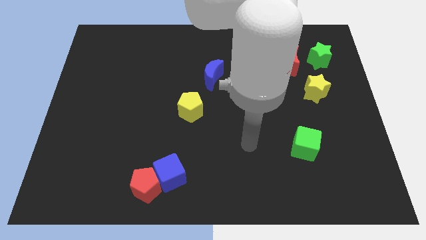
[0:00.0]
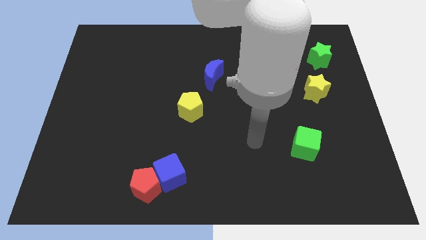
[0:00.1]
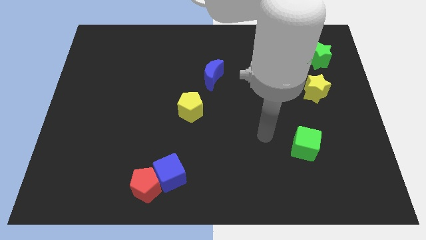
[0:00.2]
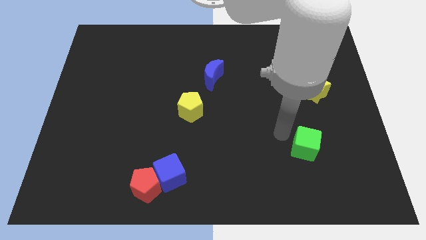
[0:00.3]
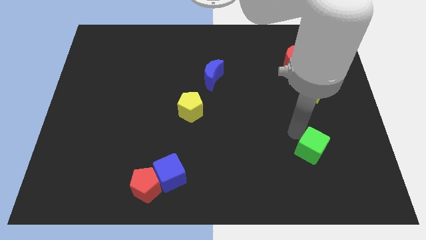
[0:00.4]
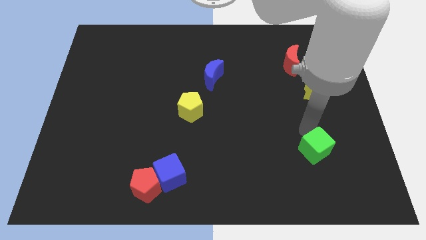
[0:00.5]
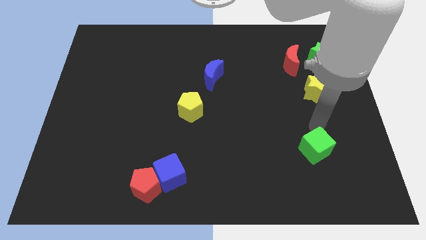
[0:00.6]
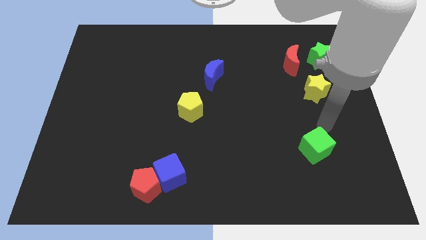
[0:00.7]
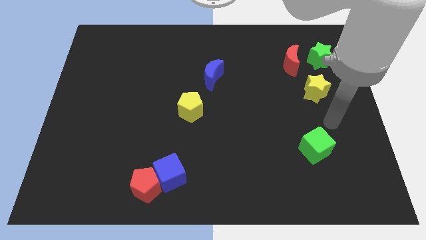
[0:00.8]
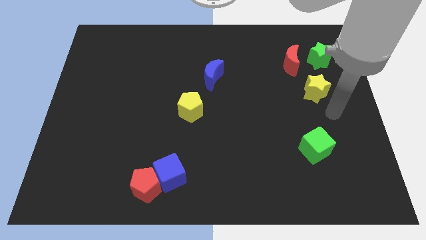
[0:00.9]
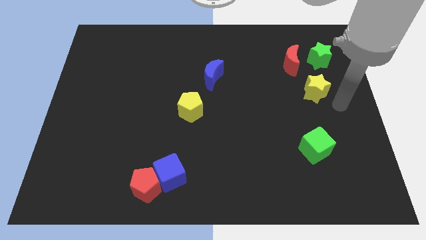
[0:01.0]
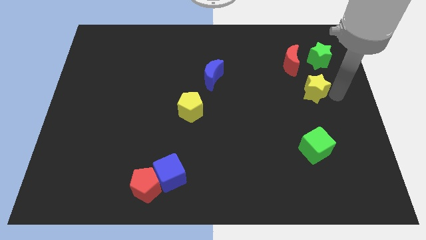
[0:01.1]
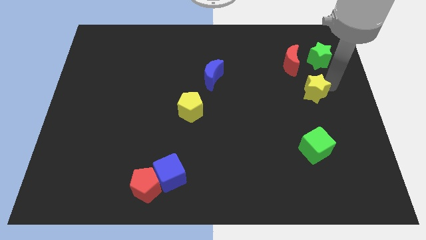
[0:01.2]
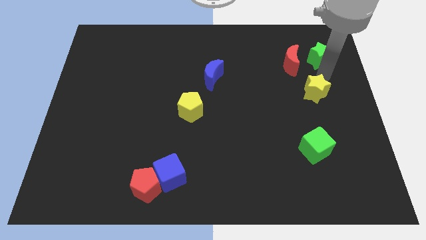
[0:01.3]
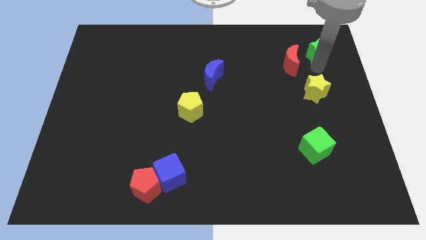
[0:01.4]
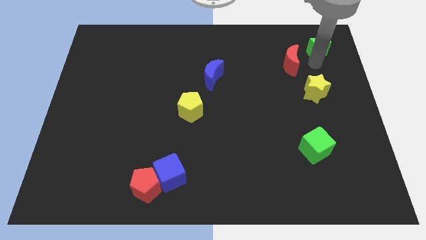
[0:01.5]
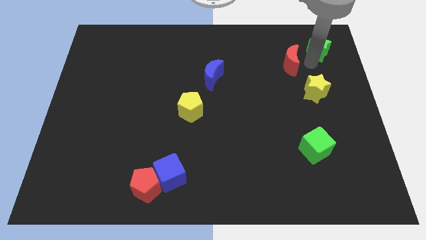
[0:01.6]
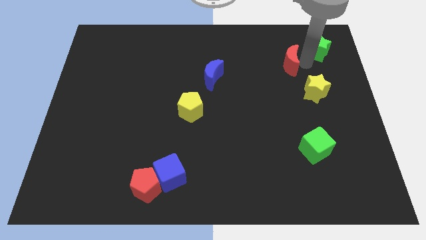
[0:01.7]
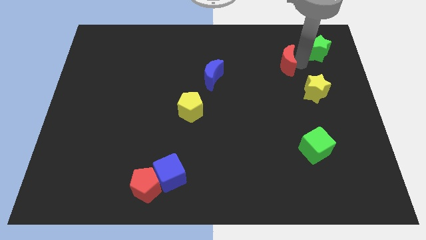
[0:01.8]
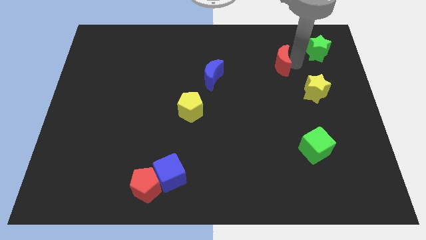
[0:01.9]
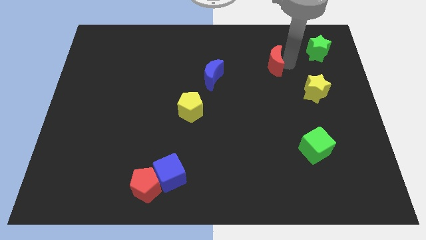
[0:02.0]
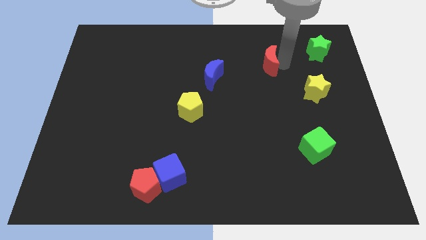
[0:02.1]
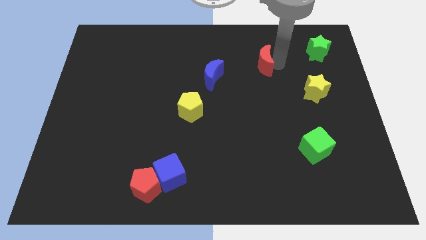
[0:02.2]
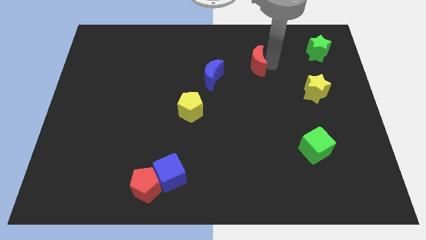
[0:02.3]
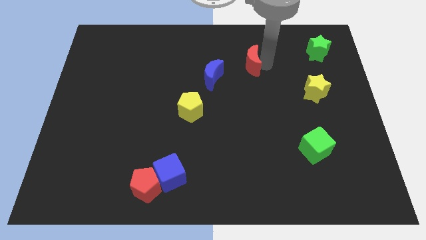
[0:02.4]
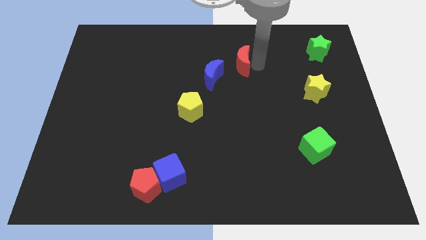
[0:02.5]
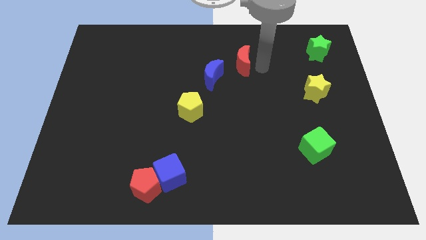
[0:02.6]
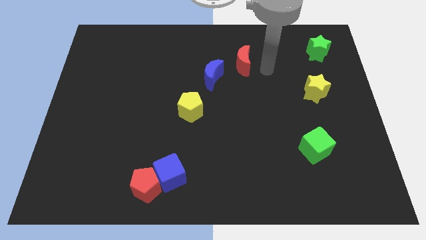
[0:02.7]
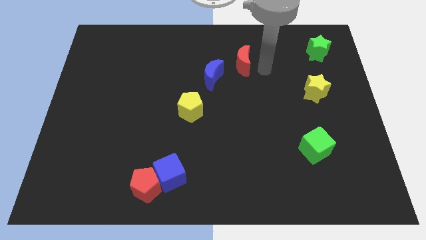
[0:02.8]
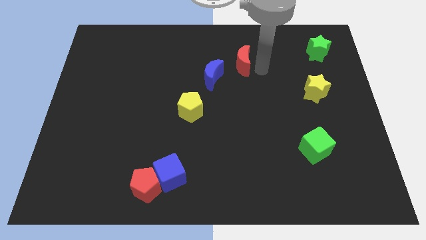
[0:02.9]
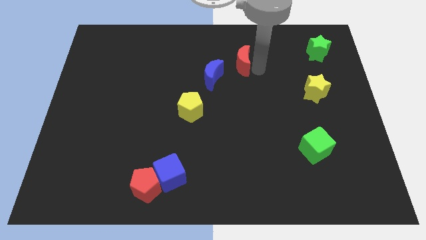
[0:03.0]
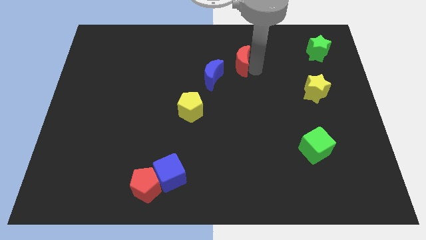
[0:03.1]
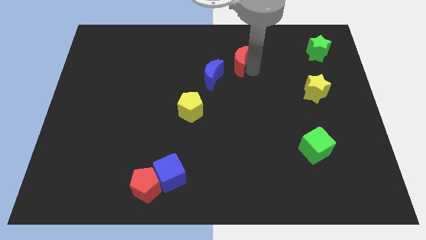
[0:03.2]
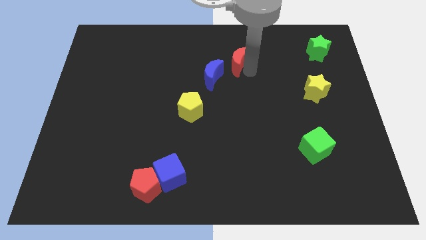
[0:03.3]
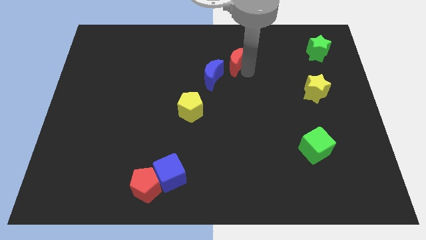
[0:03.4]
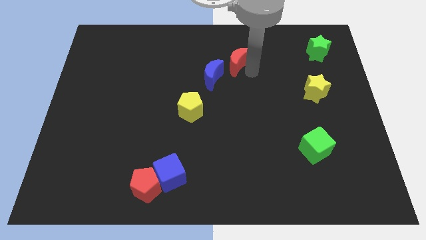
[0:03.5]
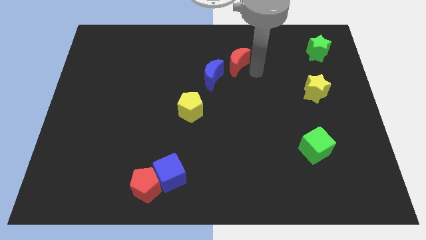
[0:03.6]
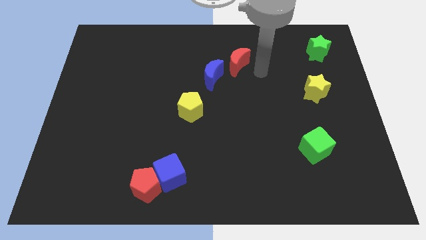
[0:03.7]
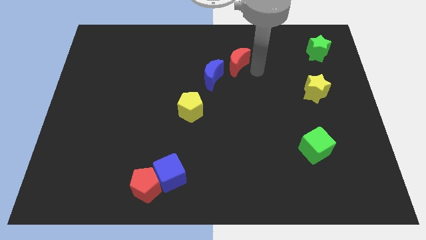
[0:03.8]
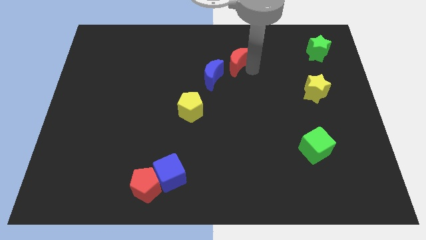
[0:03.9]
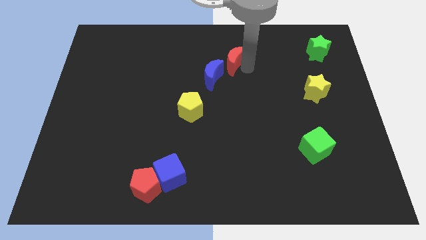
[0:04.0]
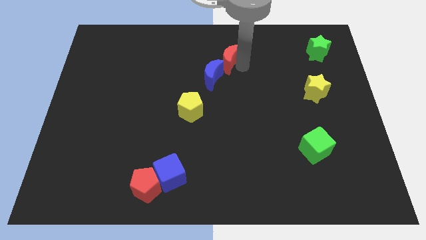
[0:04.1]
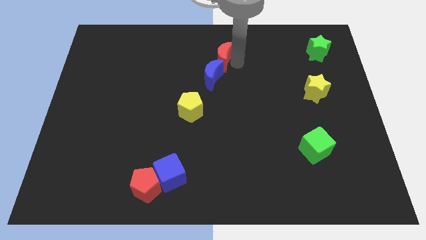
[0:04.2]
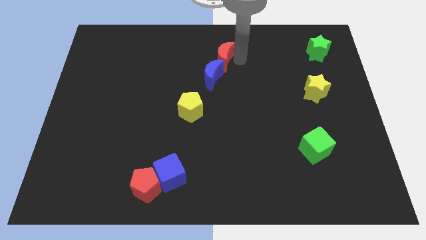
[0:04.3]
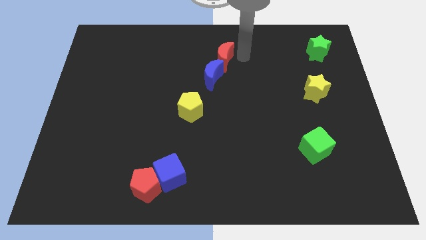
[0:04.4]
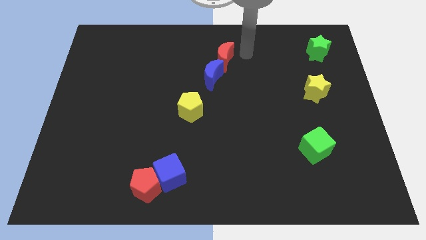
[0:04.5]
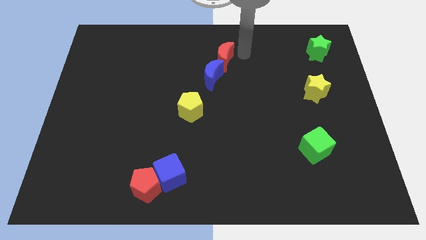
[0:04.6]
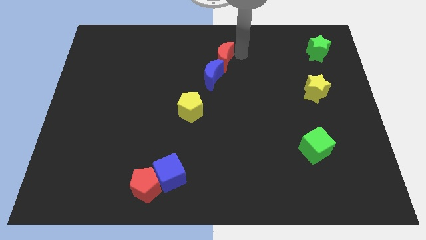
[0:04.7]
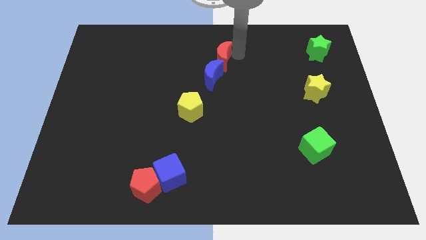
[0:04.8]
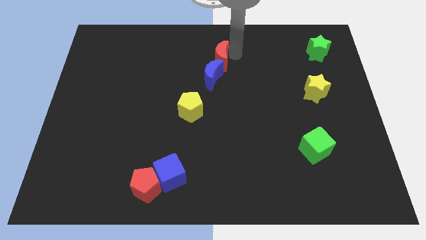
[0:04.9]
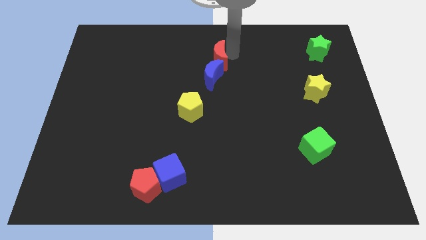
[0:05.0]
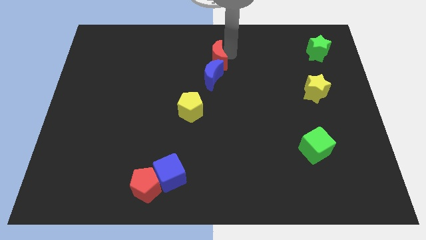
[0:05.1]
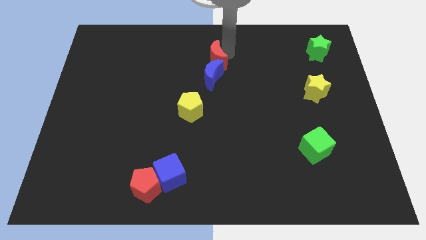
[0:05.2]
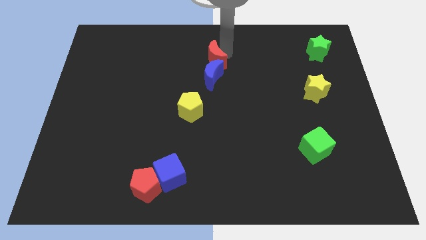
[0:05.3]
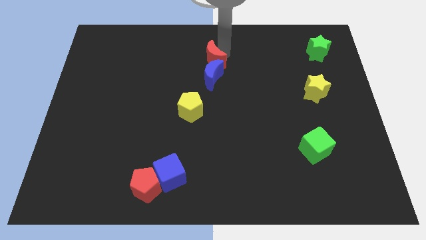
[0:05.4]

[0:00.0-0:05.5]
move the red moon left

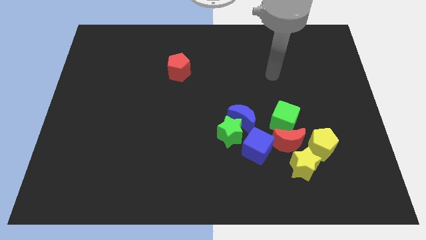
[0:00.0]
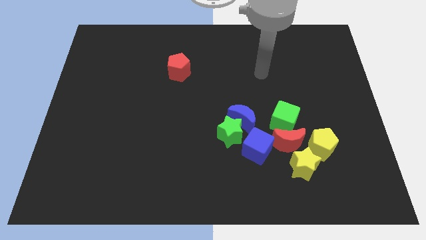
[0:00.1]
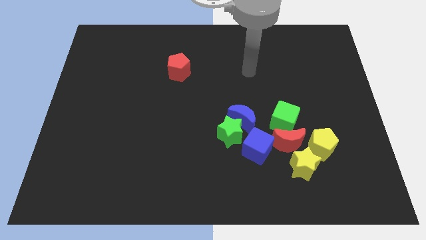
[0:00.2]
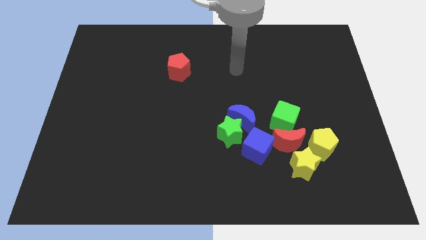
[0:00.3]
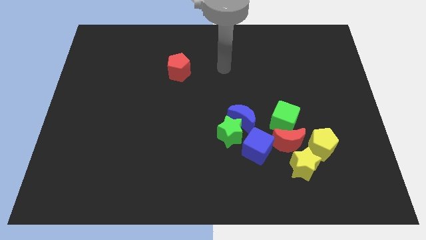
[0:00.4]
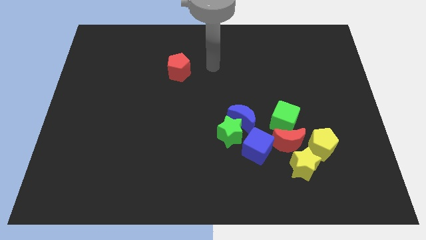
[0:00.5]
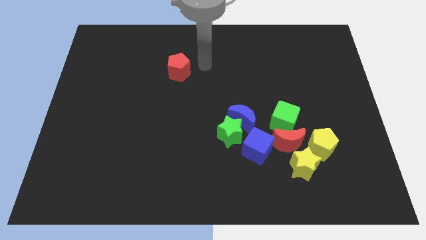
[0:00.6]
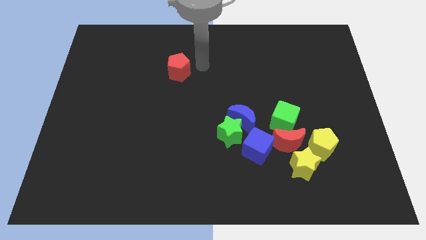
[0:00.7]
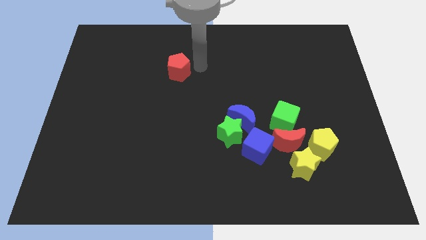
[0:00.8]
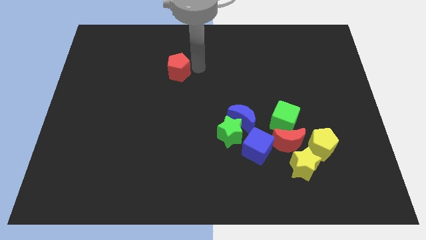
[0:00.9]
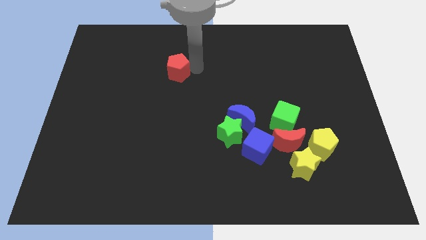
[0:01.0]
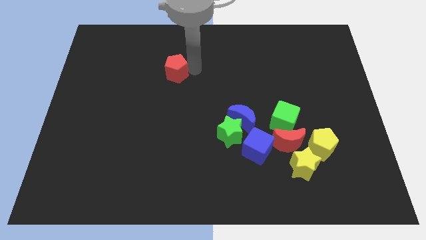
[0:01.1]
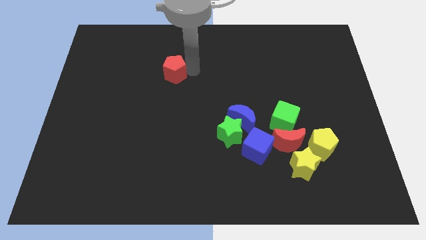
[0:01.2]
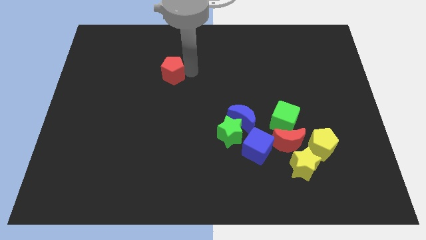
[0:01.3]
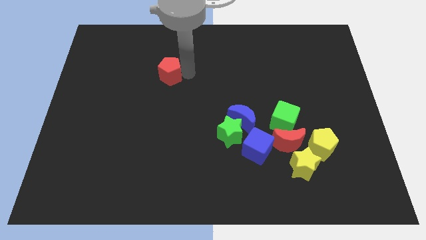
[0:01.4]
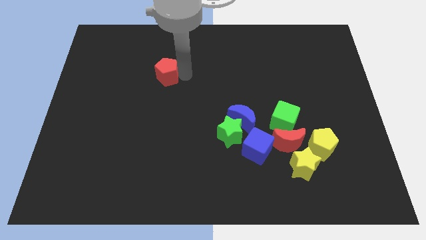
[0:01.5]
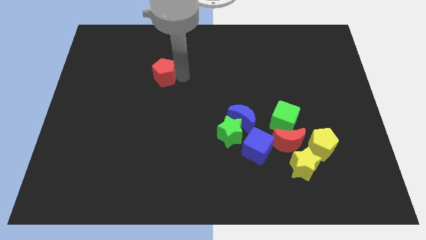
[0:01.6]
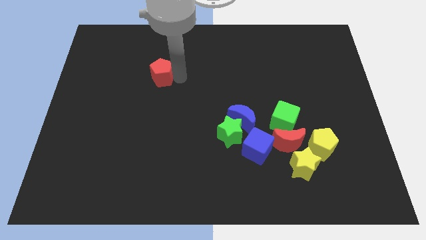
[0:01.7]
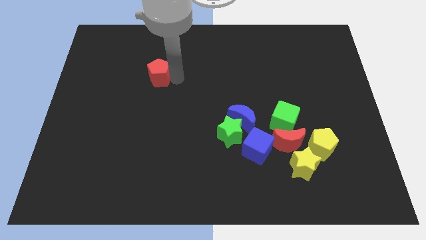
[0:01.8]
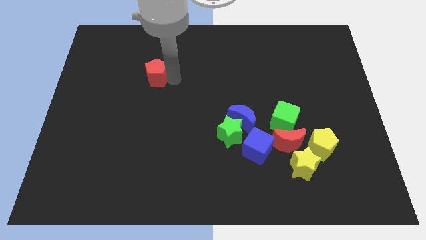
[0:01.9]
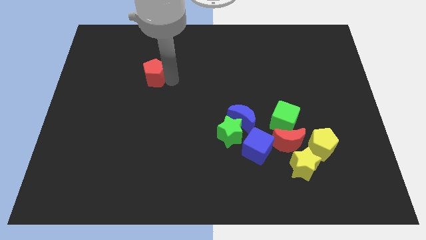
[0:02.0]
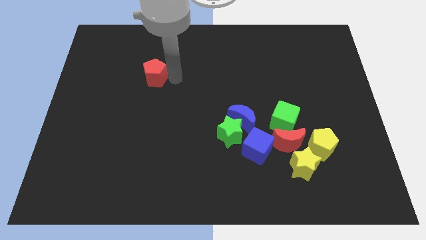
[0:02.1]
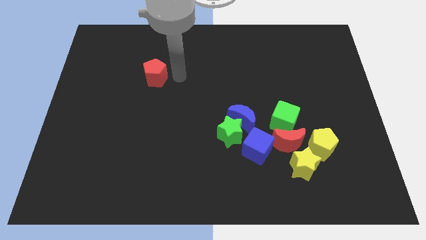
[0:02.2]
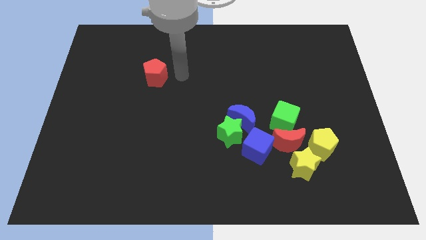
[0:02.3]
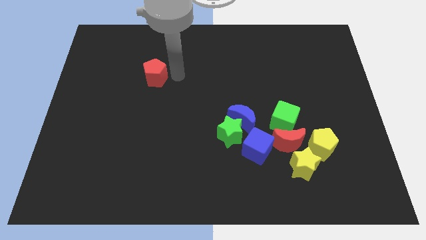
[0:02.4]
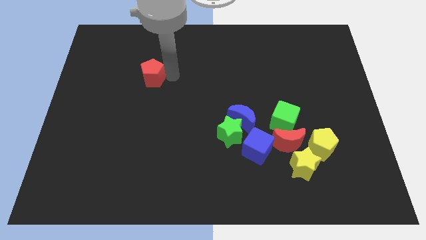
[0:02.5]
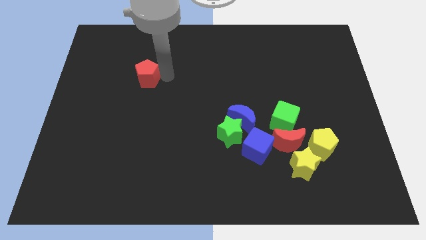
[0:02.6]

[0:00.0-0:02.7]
push the red pentagon left slightly
